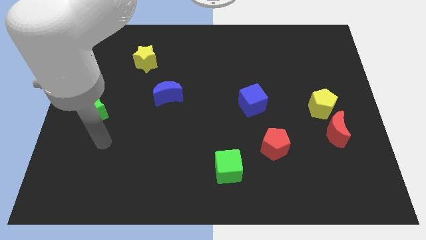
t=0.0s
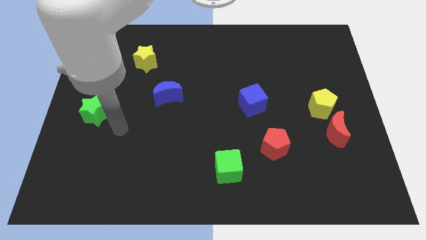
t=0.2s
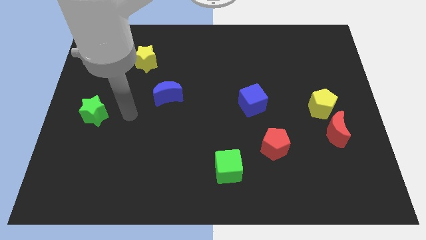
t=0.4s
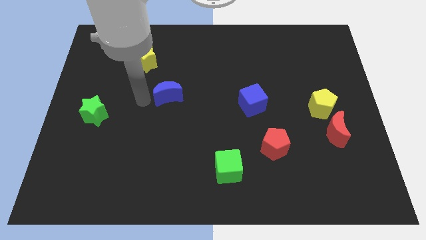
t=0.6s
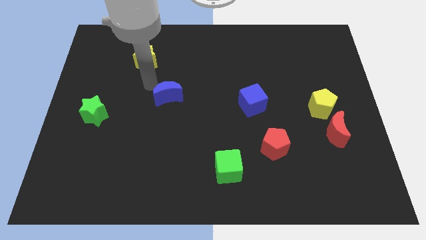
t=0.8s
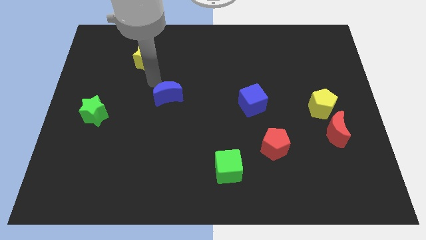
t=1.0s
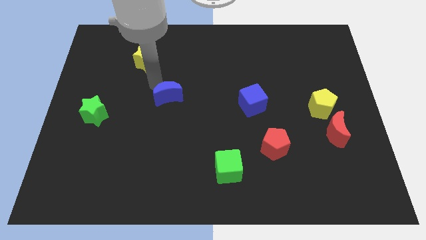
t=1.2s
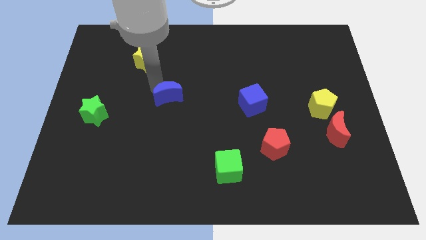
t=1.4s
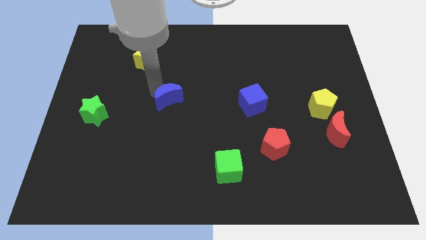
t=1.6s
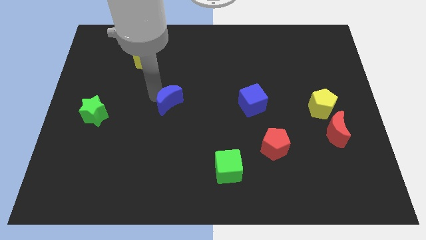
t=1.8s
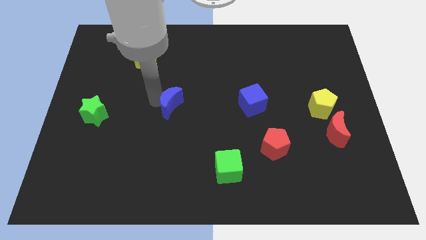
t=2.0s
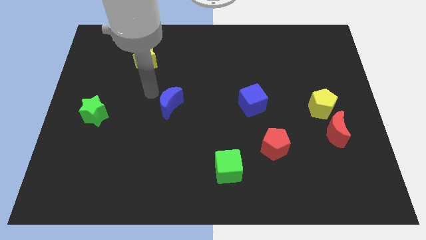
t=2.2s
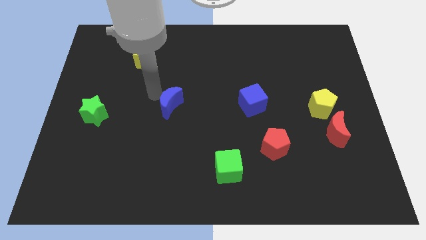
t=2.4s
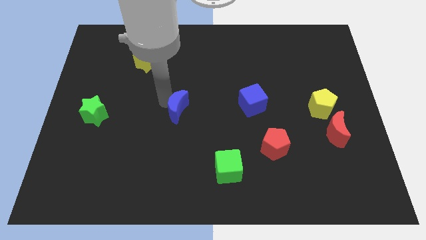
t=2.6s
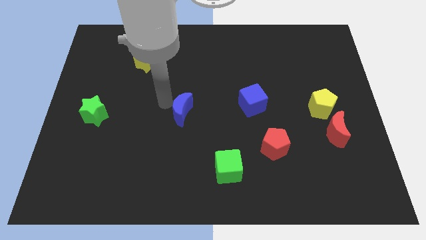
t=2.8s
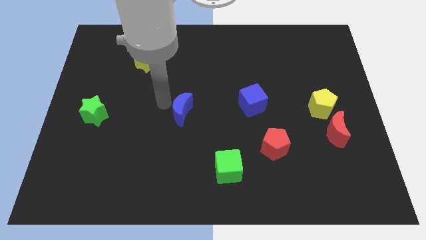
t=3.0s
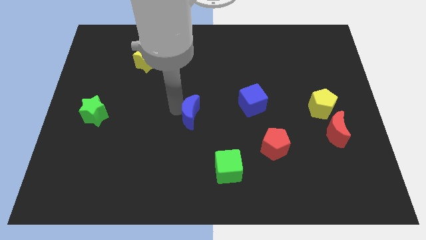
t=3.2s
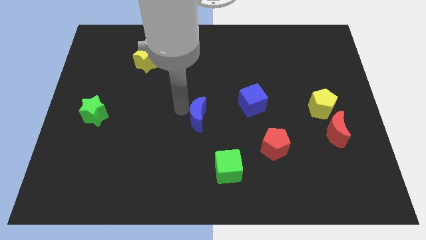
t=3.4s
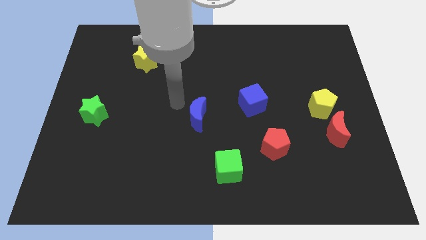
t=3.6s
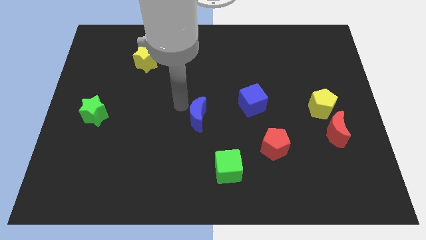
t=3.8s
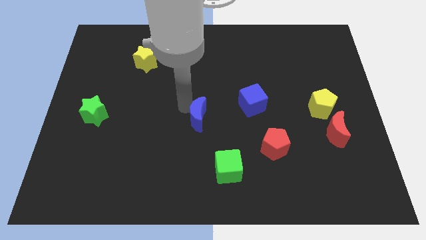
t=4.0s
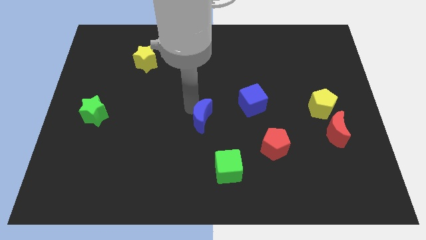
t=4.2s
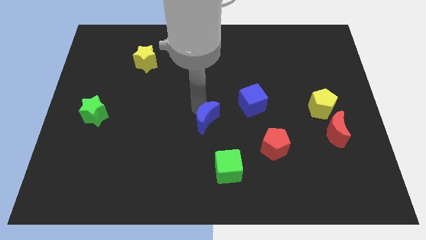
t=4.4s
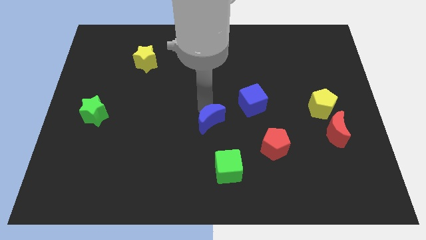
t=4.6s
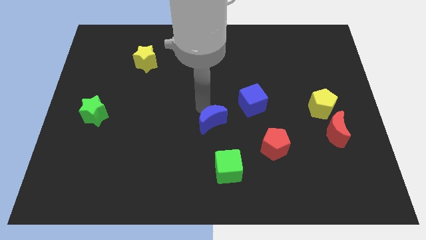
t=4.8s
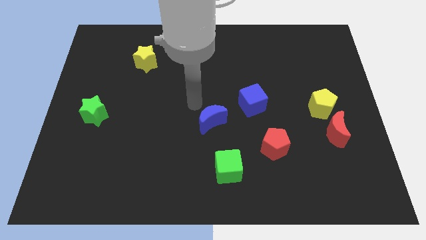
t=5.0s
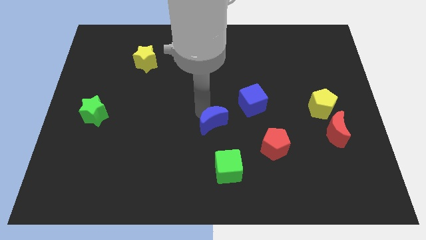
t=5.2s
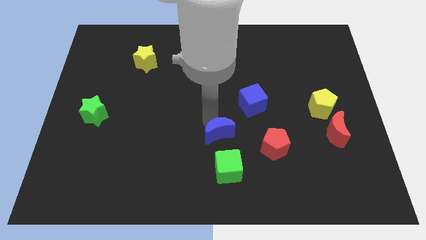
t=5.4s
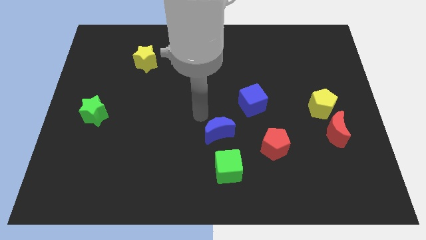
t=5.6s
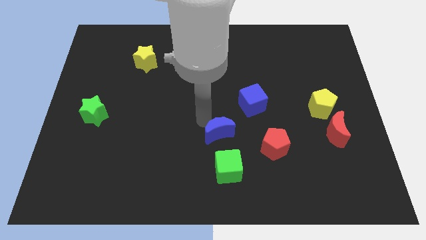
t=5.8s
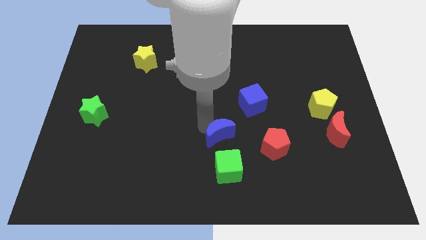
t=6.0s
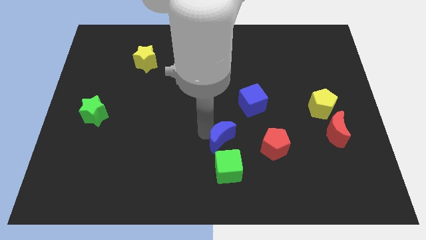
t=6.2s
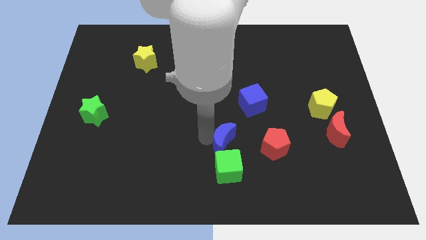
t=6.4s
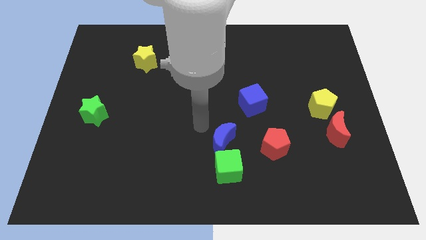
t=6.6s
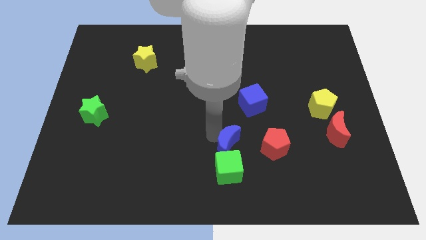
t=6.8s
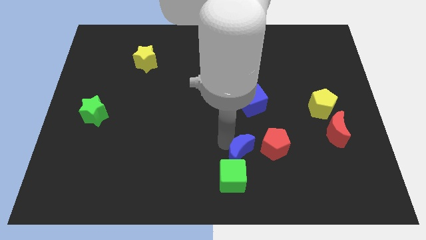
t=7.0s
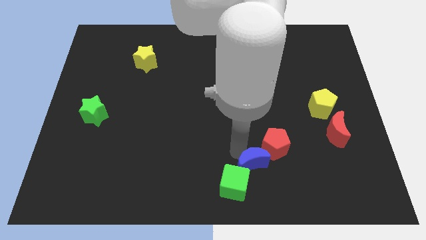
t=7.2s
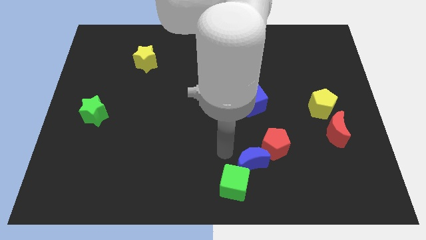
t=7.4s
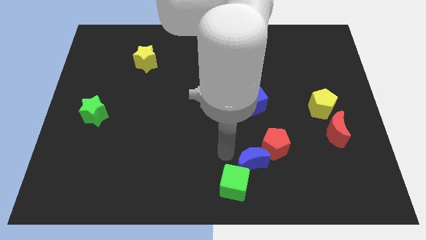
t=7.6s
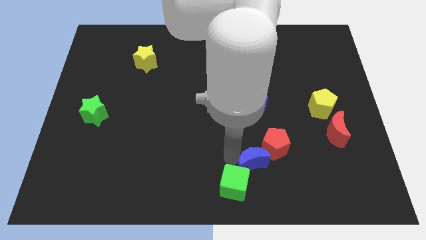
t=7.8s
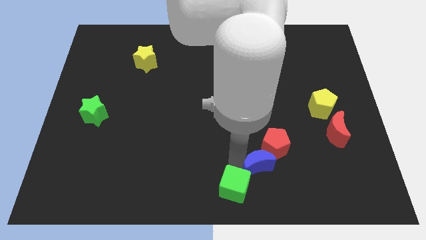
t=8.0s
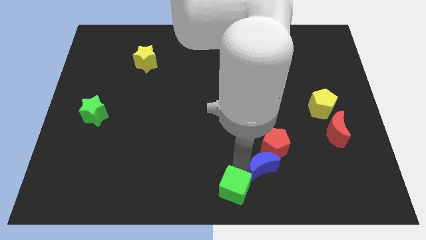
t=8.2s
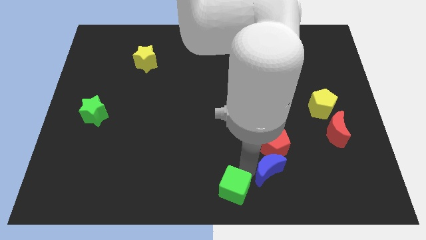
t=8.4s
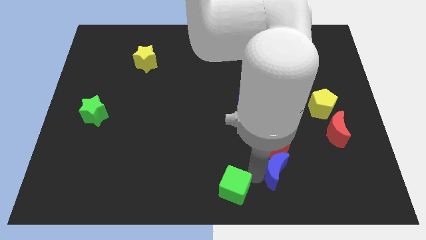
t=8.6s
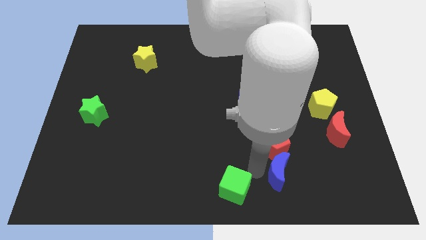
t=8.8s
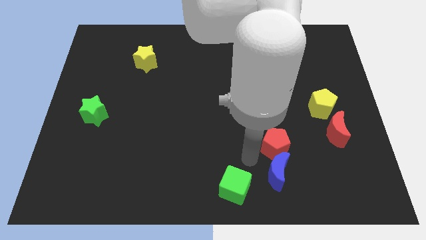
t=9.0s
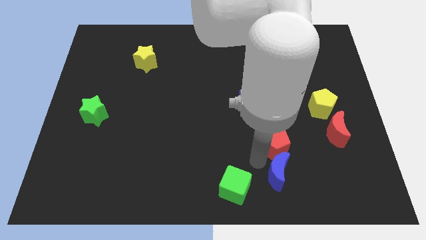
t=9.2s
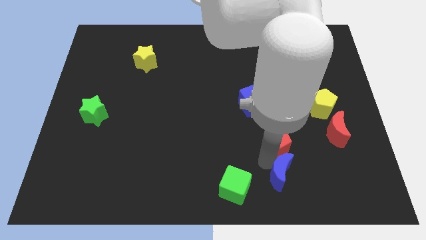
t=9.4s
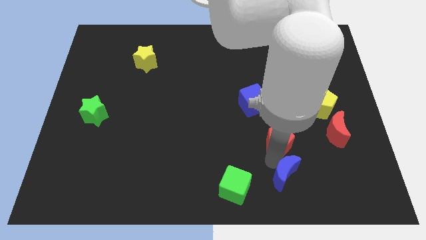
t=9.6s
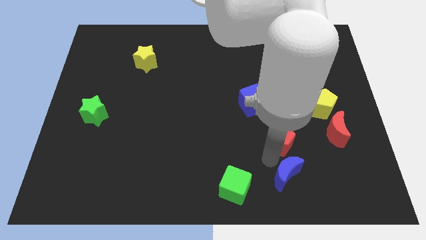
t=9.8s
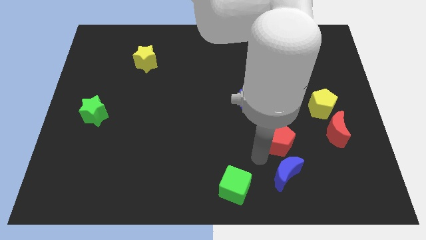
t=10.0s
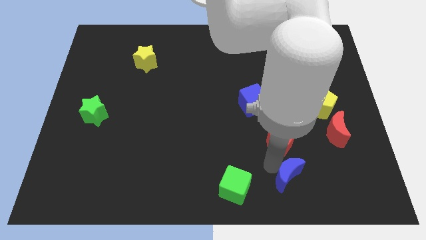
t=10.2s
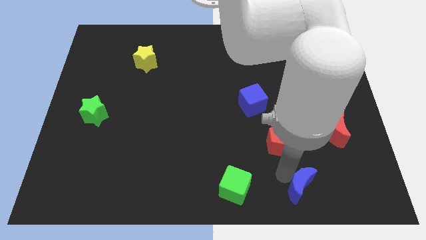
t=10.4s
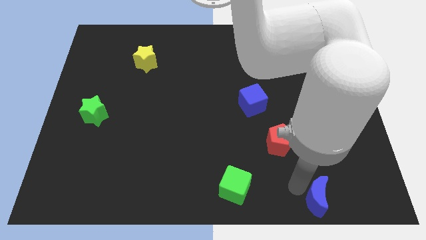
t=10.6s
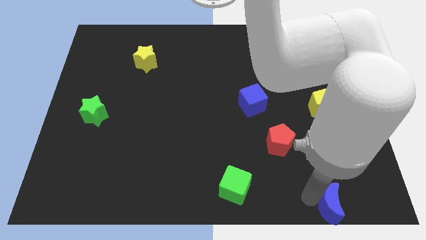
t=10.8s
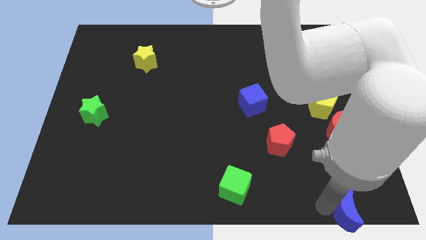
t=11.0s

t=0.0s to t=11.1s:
push the blue moon to the bottom right corner

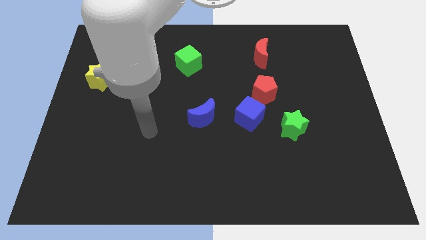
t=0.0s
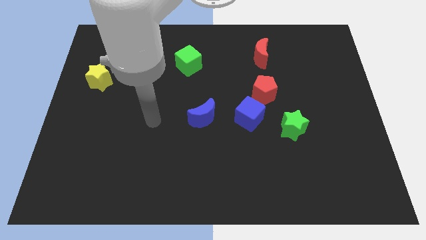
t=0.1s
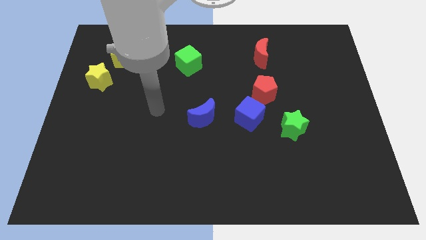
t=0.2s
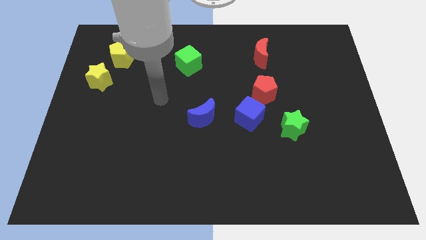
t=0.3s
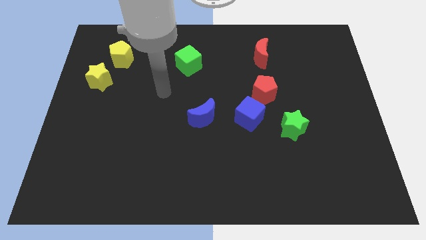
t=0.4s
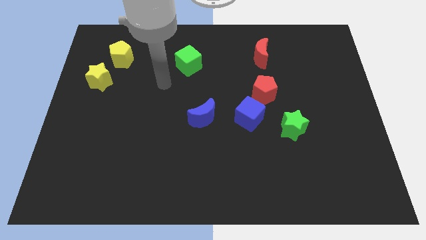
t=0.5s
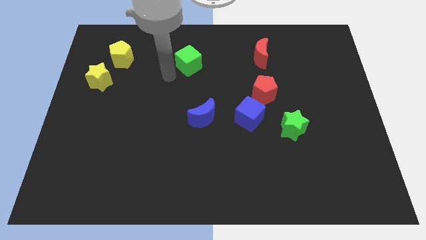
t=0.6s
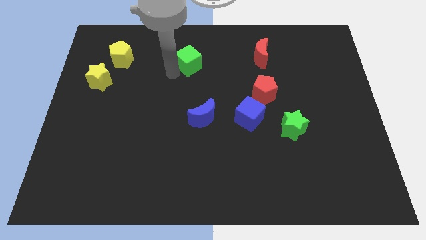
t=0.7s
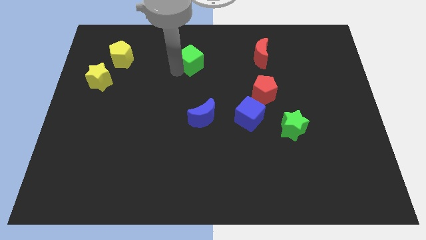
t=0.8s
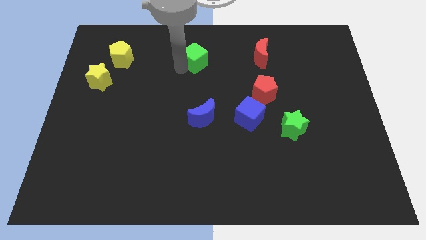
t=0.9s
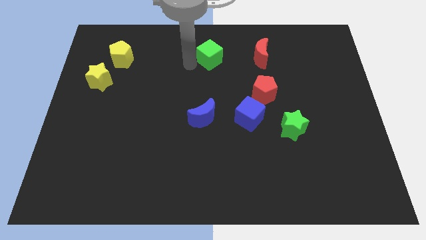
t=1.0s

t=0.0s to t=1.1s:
push the green cube to the towards your base
